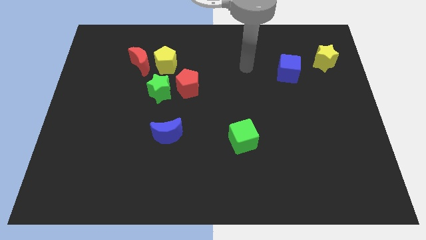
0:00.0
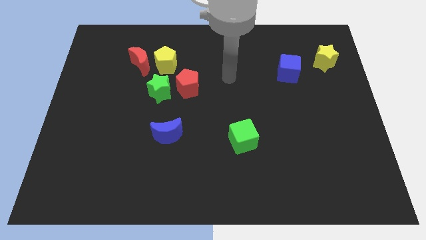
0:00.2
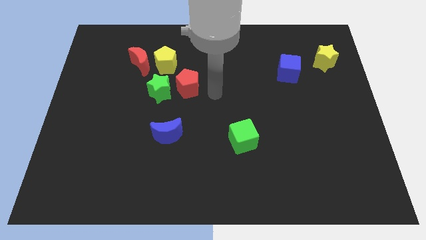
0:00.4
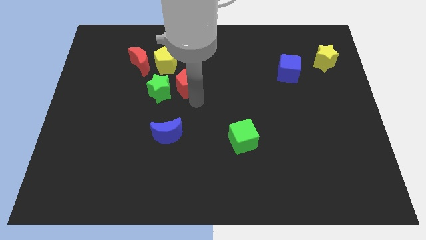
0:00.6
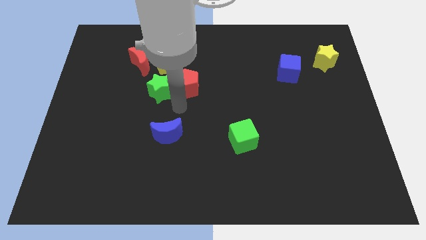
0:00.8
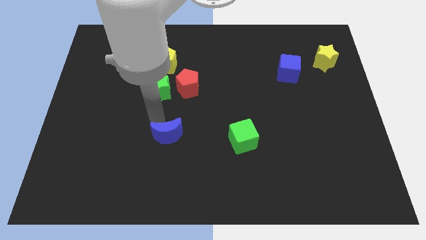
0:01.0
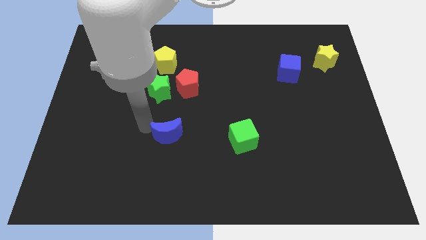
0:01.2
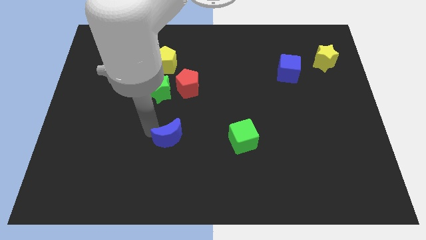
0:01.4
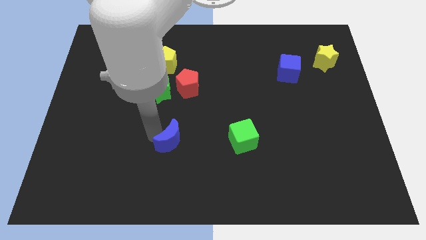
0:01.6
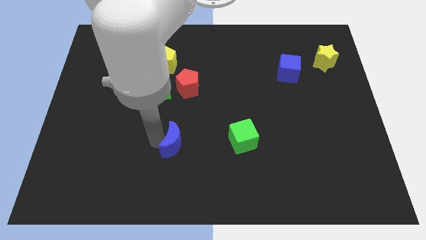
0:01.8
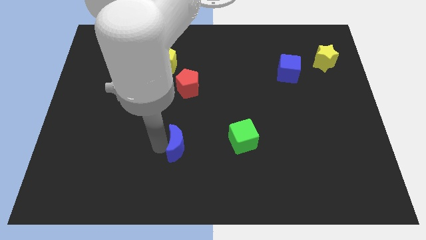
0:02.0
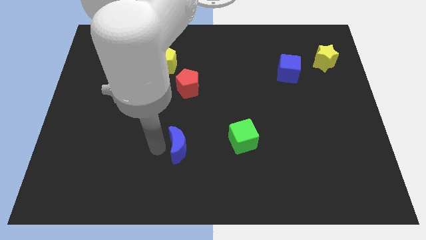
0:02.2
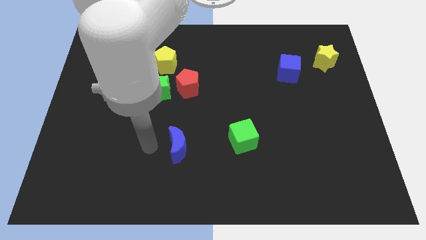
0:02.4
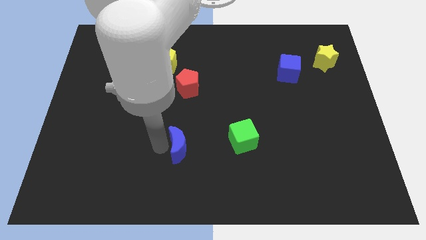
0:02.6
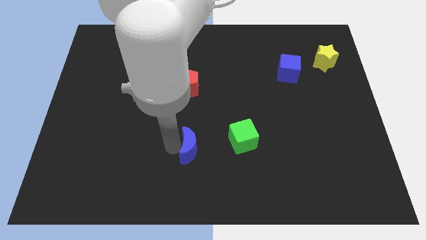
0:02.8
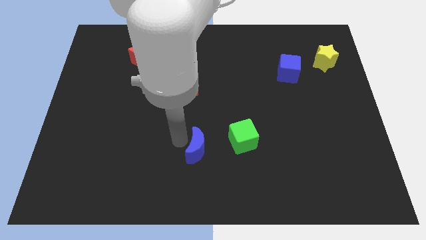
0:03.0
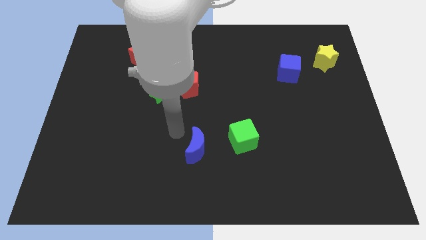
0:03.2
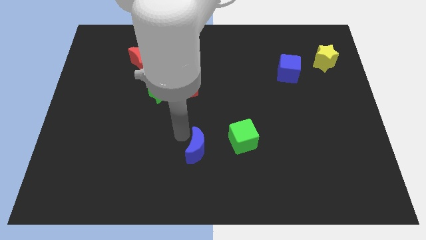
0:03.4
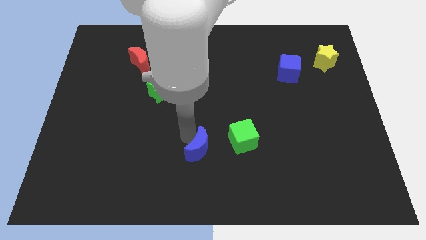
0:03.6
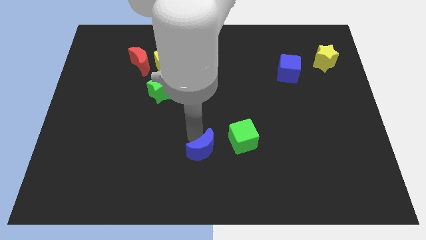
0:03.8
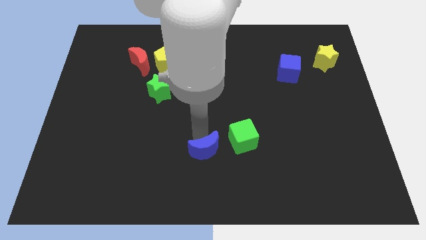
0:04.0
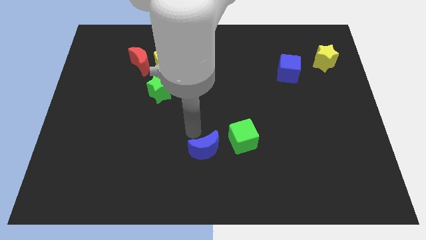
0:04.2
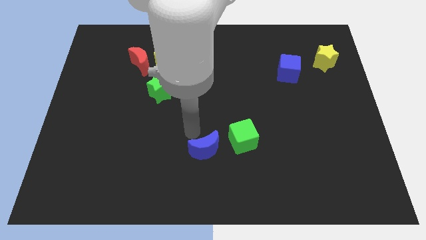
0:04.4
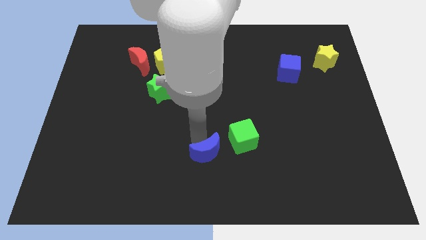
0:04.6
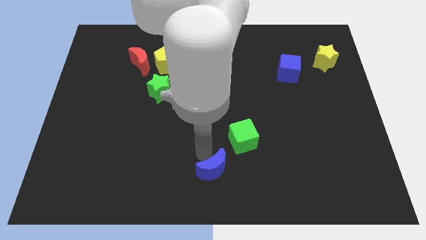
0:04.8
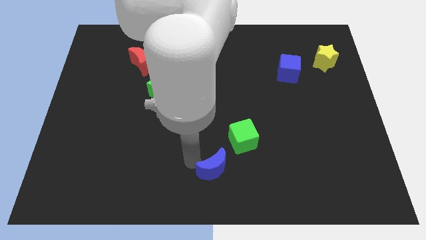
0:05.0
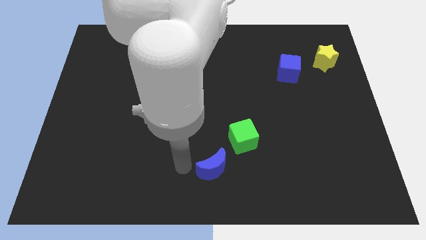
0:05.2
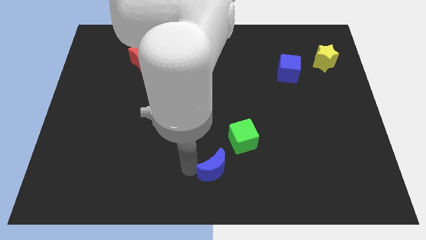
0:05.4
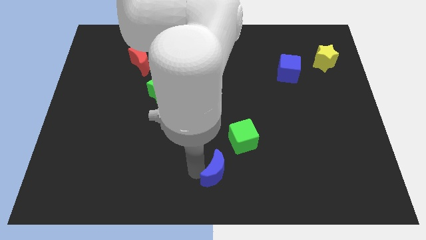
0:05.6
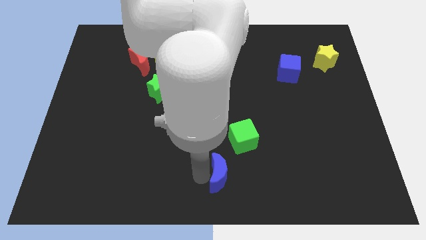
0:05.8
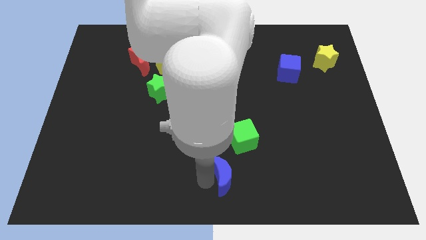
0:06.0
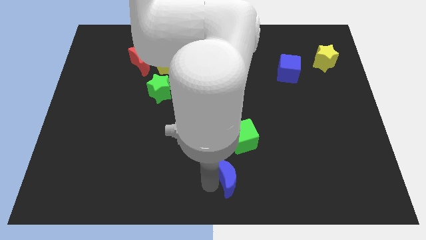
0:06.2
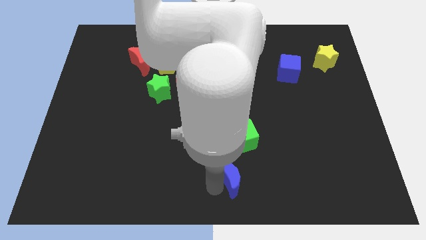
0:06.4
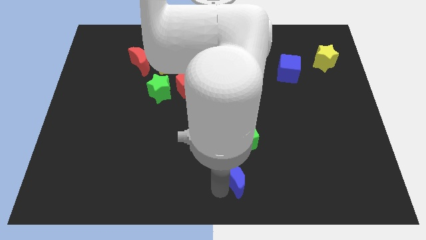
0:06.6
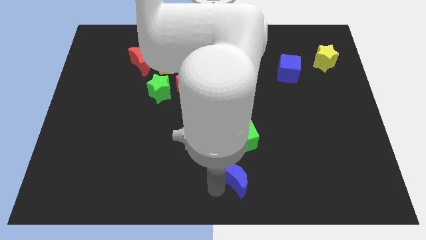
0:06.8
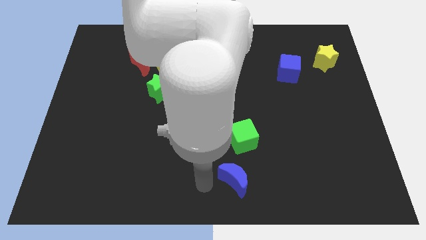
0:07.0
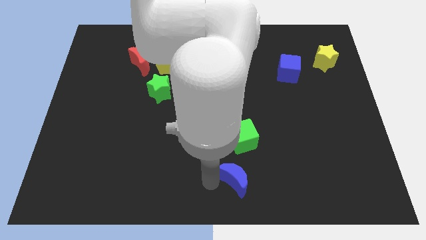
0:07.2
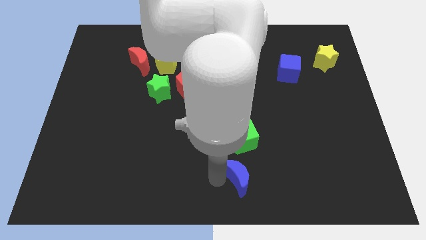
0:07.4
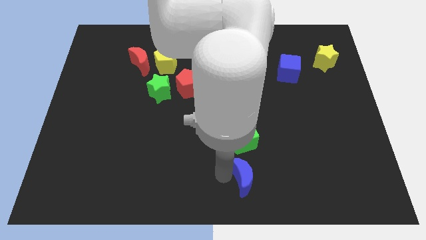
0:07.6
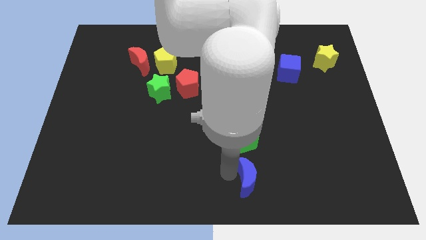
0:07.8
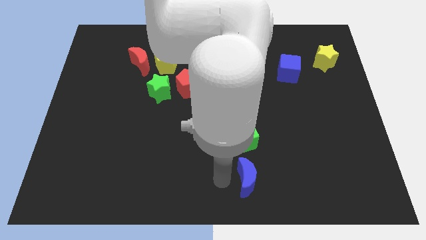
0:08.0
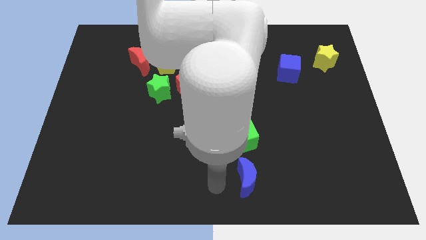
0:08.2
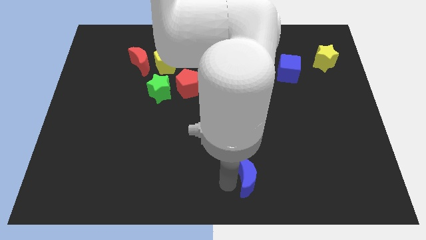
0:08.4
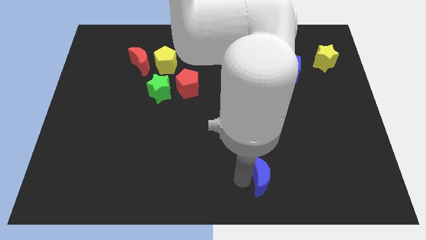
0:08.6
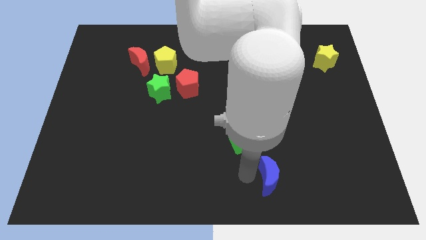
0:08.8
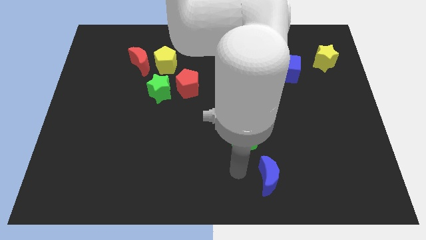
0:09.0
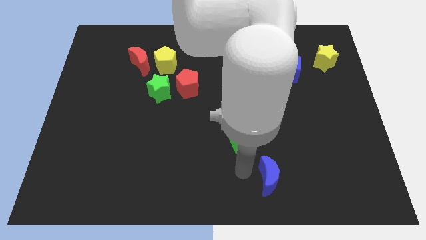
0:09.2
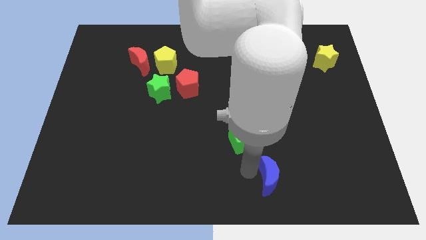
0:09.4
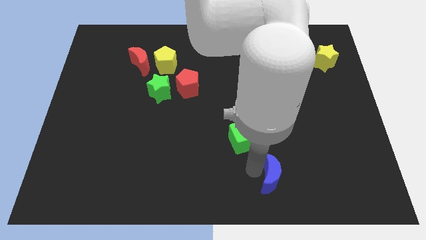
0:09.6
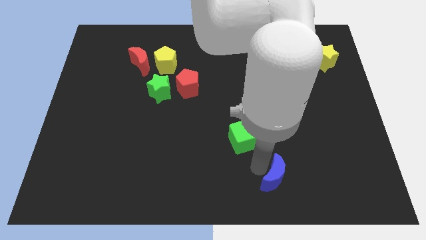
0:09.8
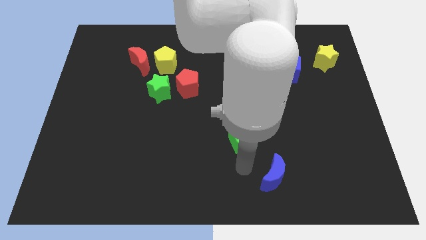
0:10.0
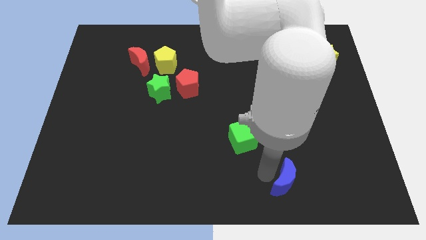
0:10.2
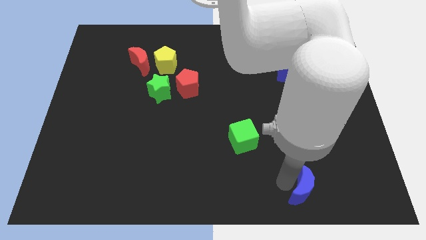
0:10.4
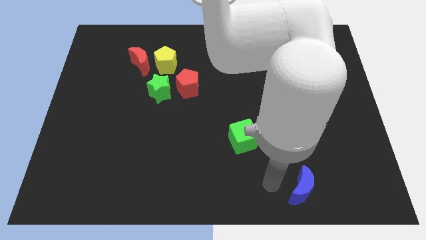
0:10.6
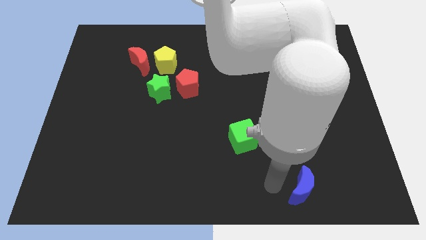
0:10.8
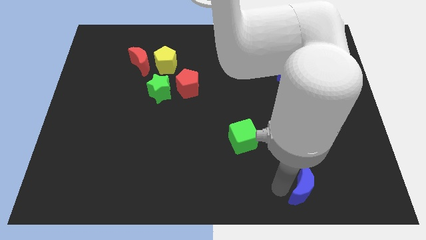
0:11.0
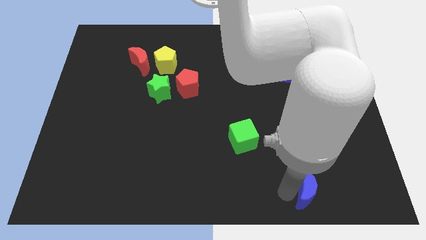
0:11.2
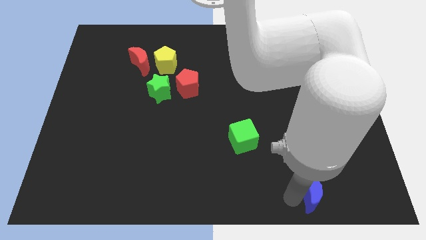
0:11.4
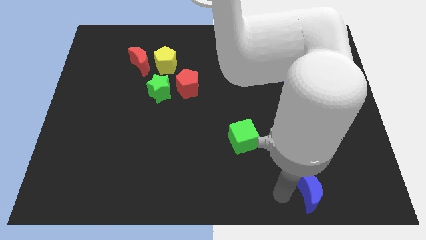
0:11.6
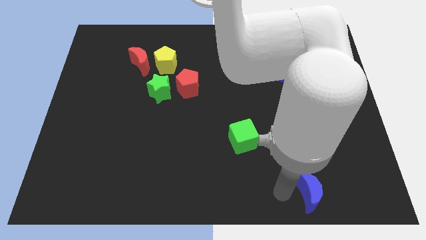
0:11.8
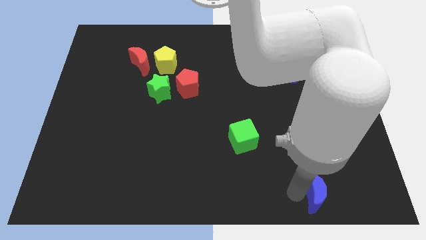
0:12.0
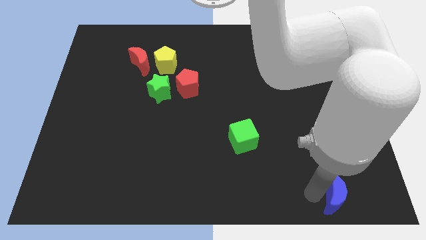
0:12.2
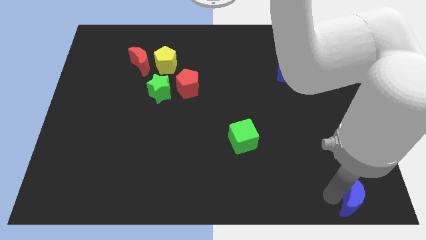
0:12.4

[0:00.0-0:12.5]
push the blue moon to the bottom right corner
